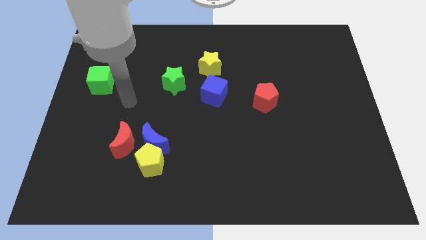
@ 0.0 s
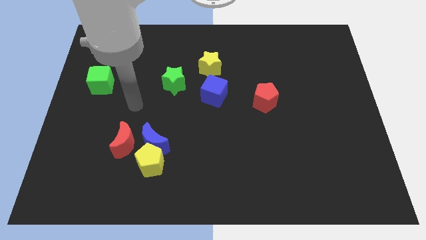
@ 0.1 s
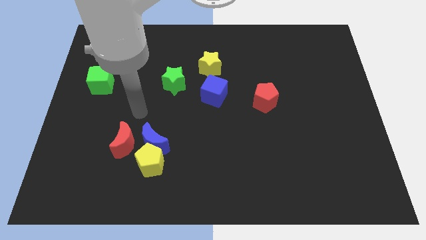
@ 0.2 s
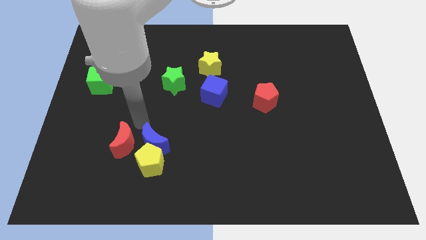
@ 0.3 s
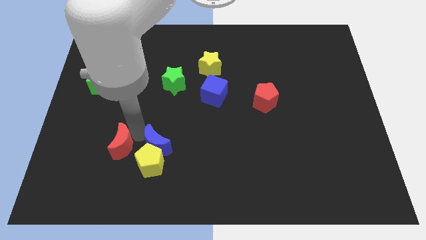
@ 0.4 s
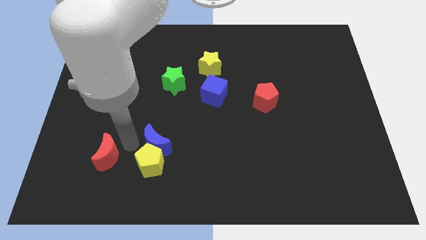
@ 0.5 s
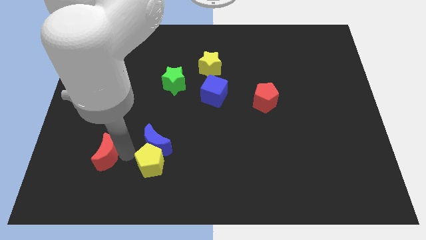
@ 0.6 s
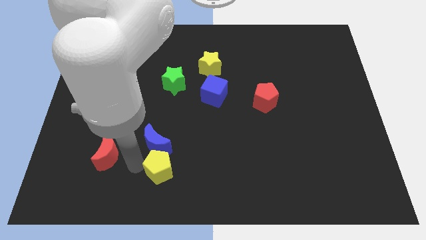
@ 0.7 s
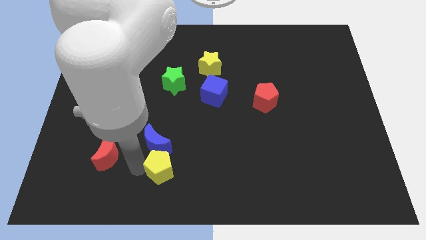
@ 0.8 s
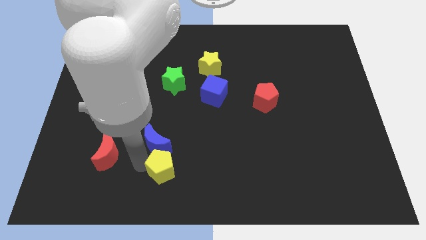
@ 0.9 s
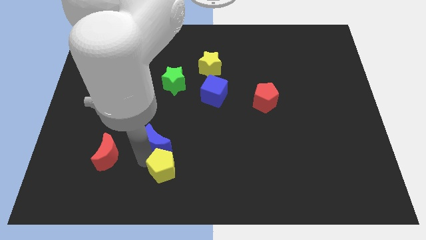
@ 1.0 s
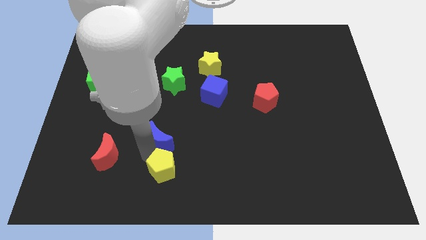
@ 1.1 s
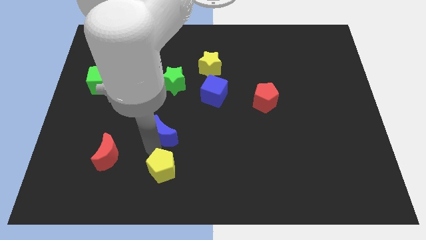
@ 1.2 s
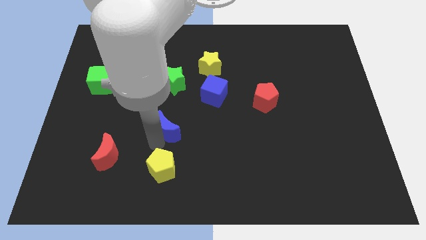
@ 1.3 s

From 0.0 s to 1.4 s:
pull the blue moon apart from the yellow pentagon and red moon

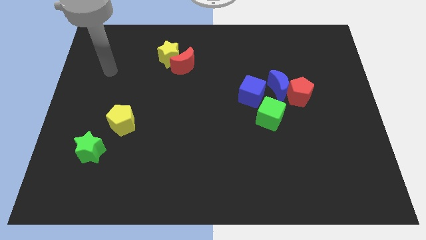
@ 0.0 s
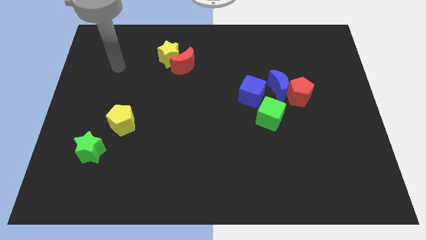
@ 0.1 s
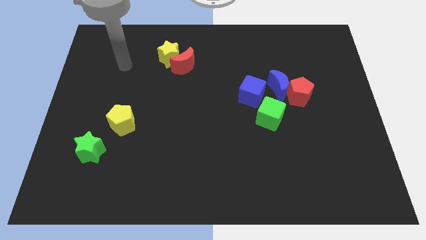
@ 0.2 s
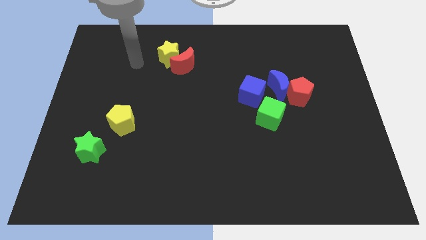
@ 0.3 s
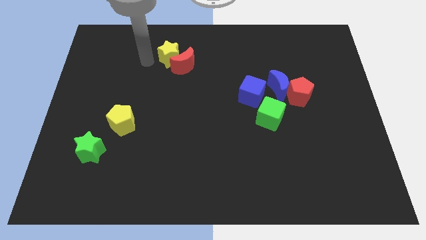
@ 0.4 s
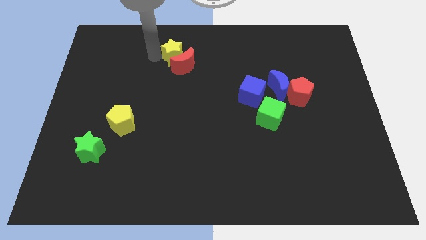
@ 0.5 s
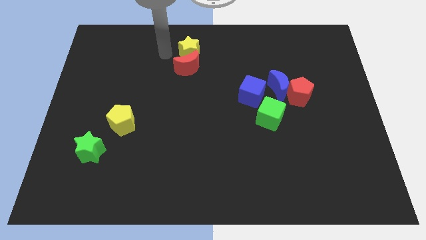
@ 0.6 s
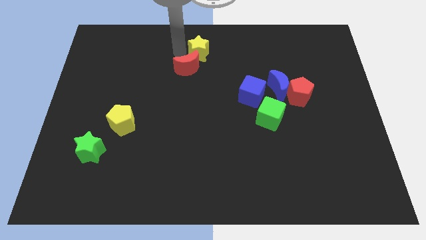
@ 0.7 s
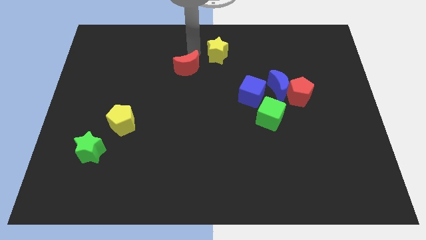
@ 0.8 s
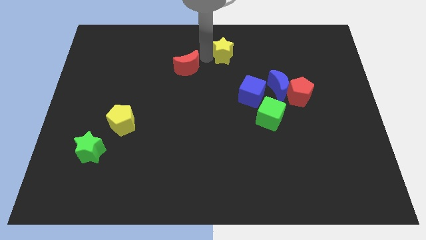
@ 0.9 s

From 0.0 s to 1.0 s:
separate the red moon from the yellow star

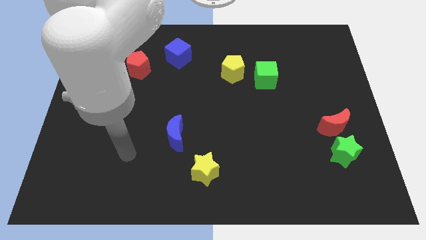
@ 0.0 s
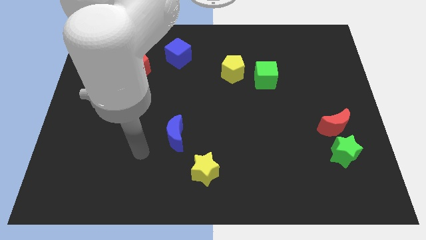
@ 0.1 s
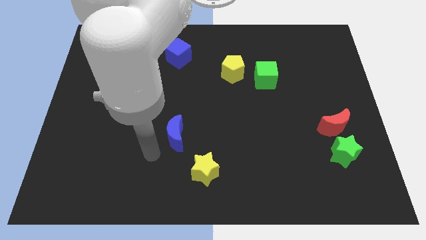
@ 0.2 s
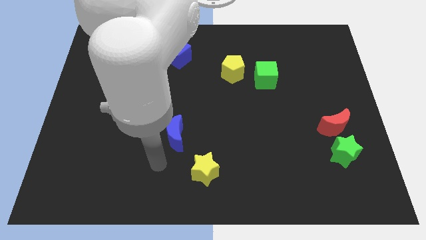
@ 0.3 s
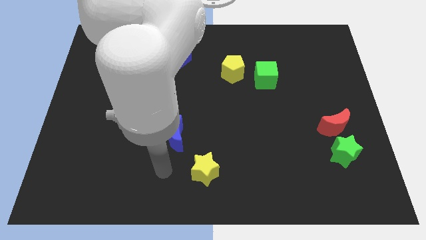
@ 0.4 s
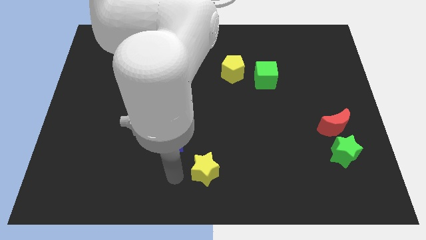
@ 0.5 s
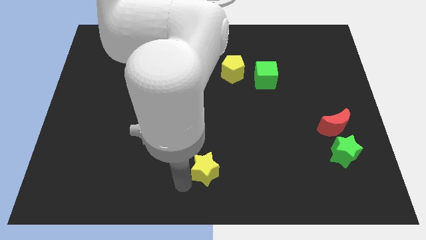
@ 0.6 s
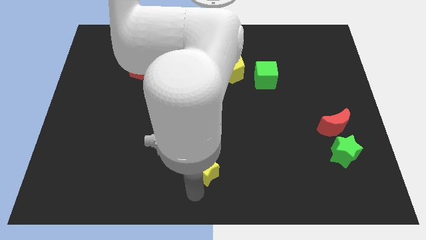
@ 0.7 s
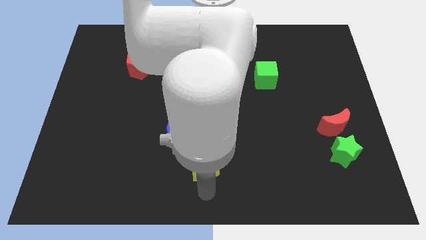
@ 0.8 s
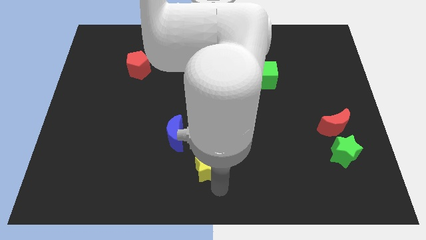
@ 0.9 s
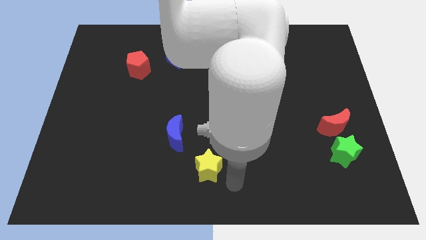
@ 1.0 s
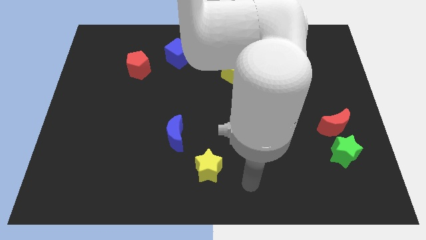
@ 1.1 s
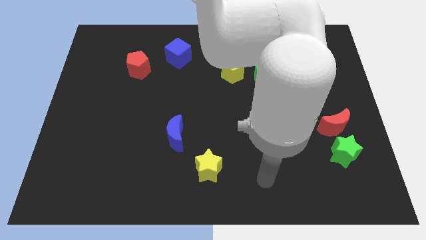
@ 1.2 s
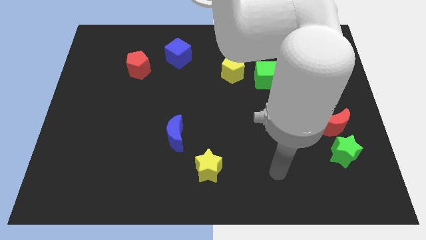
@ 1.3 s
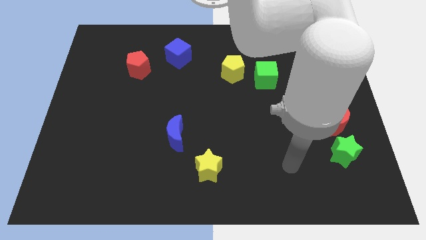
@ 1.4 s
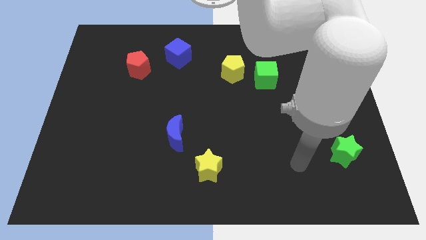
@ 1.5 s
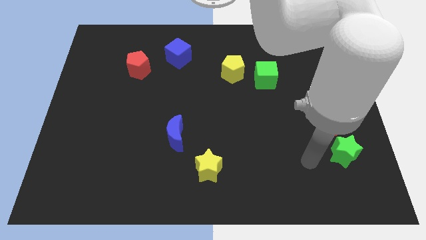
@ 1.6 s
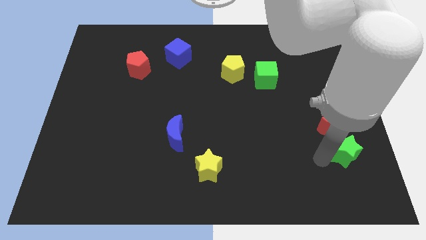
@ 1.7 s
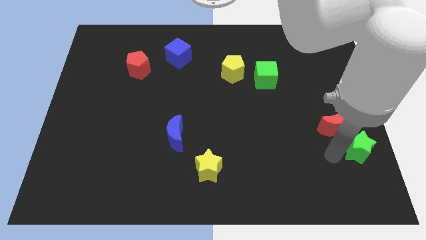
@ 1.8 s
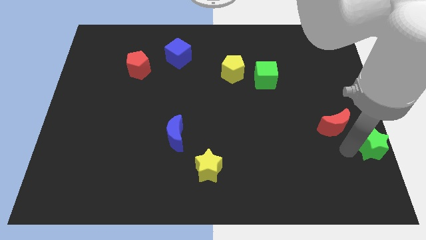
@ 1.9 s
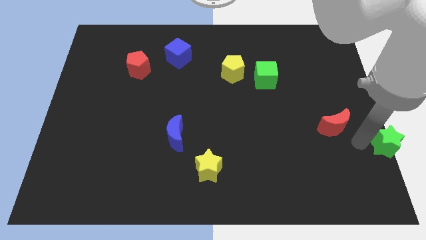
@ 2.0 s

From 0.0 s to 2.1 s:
pull the red moon apart from the green star

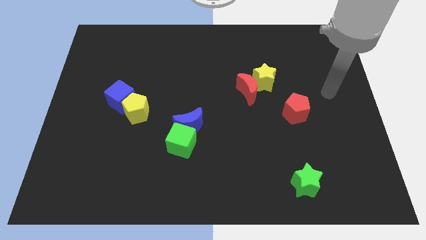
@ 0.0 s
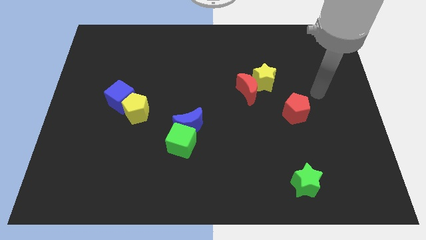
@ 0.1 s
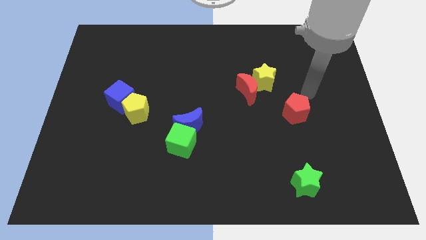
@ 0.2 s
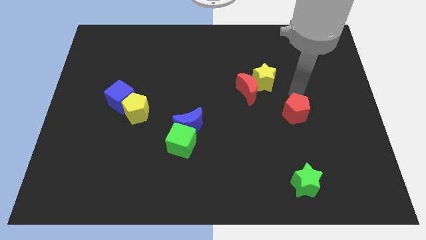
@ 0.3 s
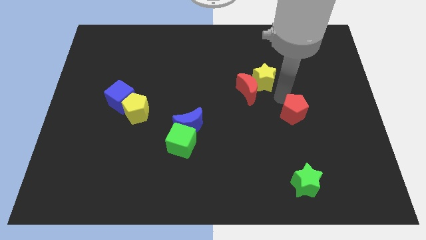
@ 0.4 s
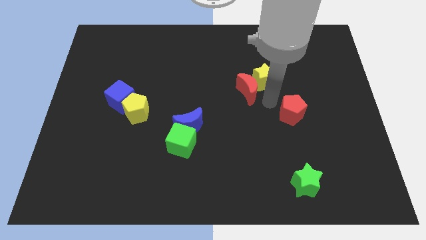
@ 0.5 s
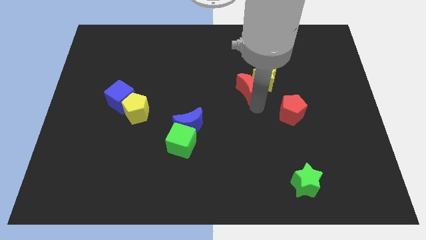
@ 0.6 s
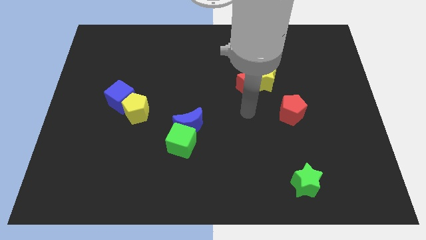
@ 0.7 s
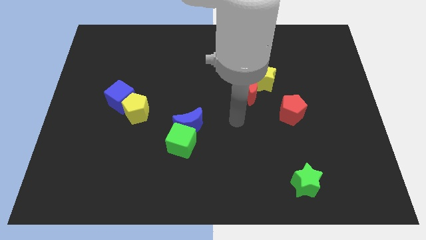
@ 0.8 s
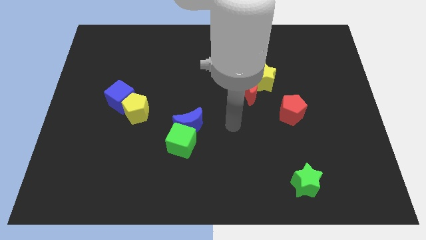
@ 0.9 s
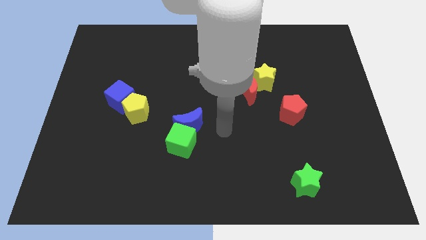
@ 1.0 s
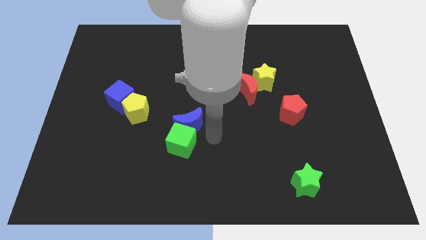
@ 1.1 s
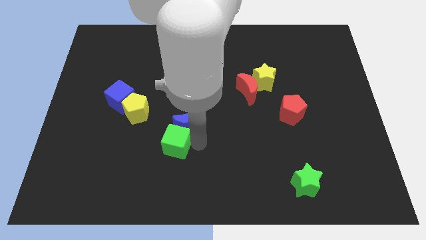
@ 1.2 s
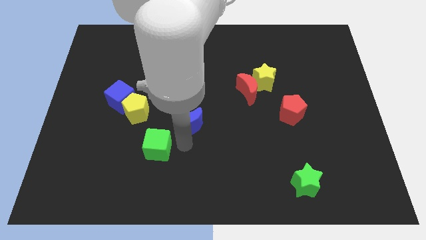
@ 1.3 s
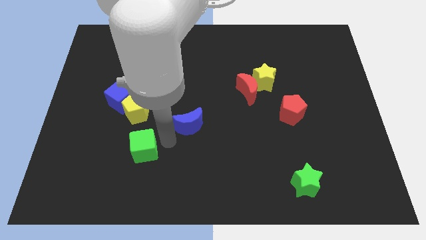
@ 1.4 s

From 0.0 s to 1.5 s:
pull the blue moon apart from the green cube

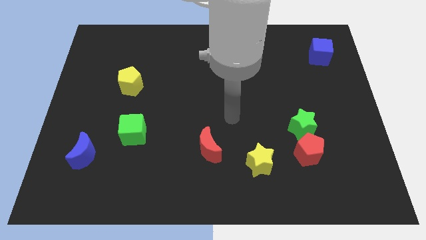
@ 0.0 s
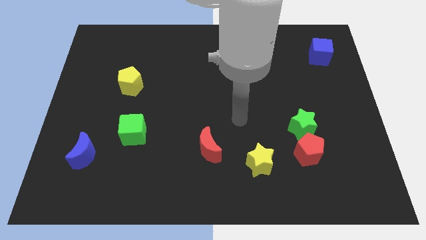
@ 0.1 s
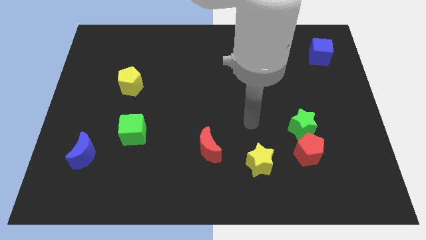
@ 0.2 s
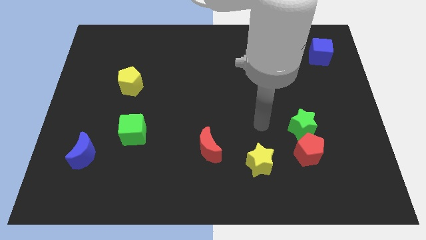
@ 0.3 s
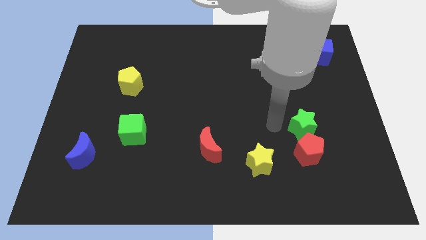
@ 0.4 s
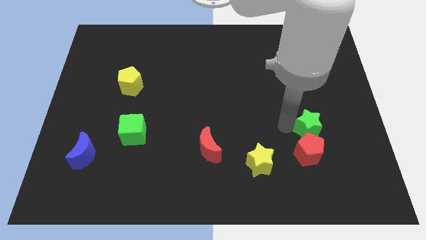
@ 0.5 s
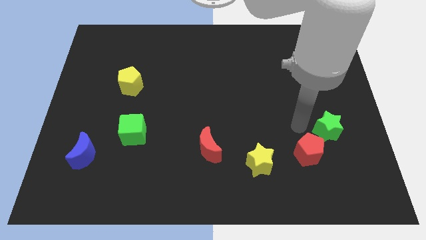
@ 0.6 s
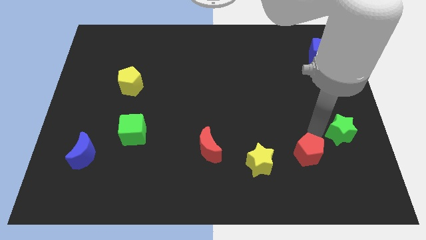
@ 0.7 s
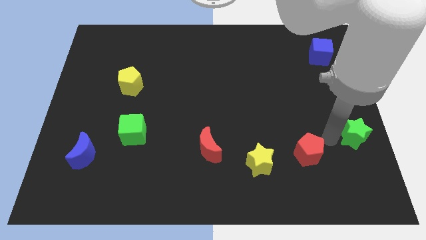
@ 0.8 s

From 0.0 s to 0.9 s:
pull the red pentagon apart from the green star

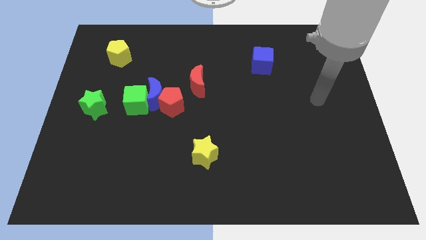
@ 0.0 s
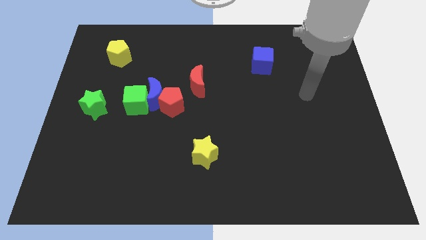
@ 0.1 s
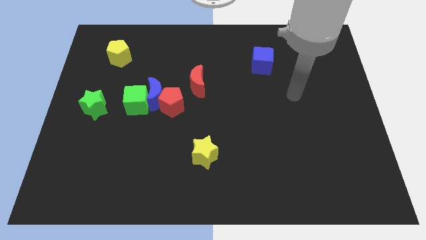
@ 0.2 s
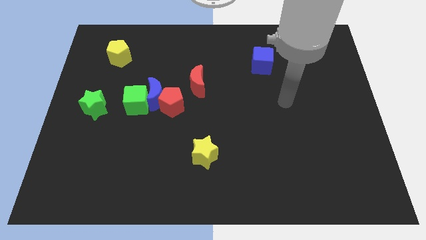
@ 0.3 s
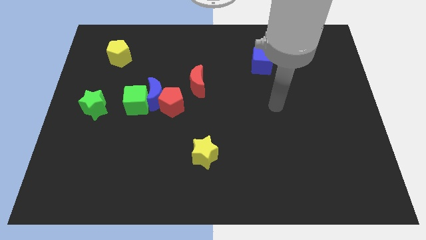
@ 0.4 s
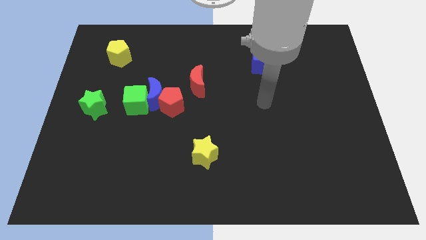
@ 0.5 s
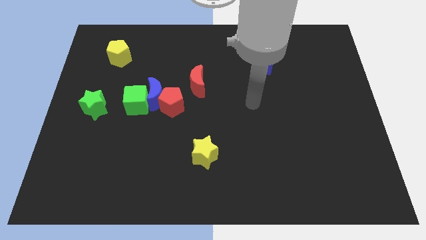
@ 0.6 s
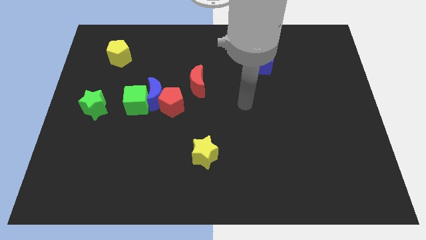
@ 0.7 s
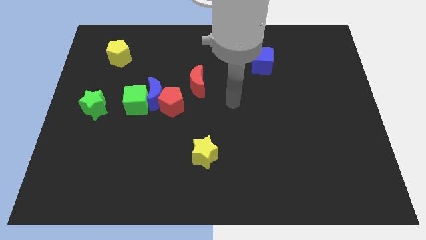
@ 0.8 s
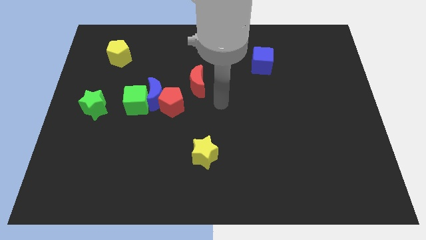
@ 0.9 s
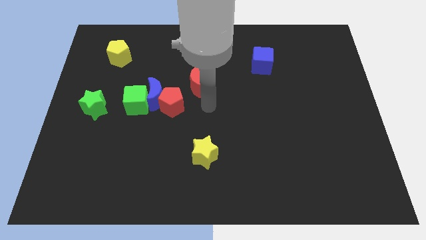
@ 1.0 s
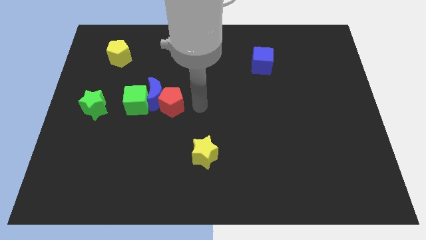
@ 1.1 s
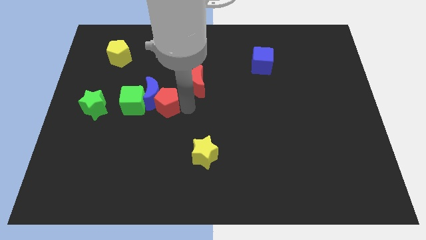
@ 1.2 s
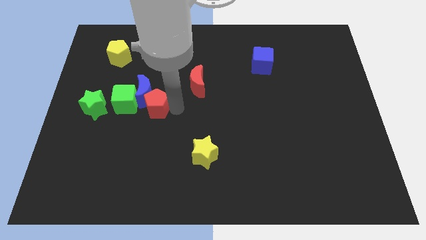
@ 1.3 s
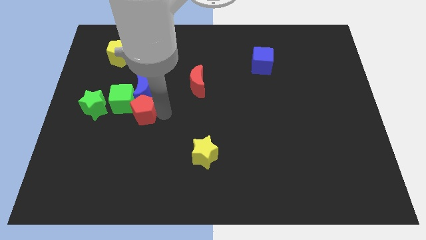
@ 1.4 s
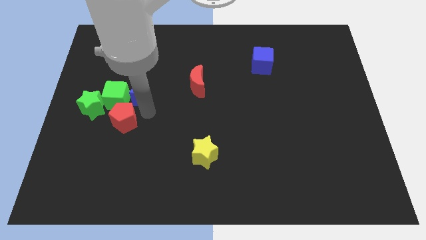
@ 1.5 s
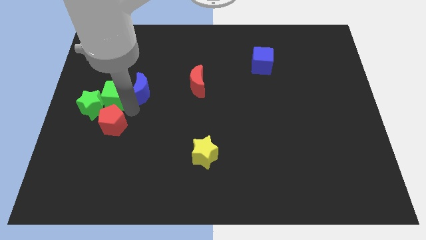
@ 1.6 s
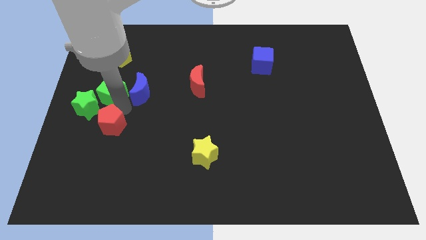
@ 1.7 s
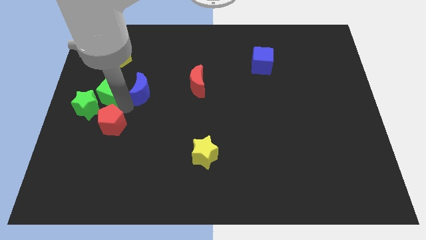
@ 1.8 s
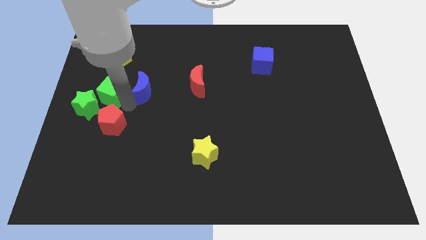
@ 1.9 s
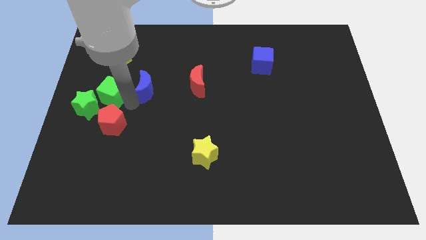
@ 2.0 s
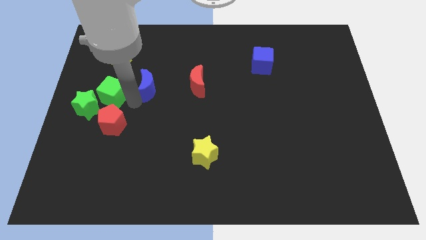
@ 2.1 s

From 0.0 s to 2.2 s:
move the blue moon away from the green cube and red pentagon

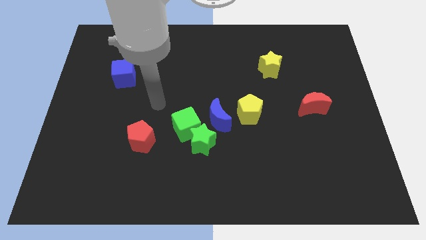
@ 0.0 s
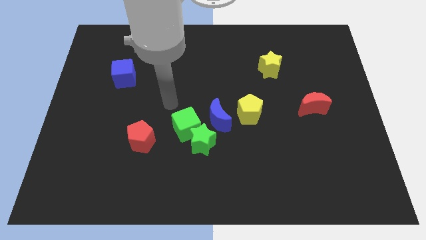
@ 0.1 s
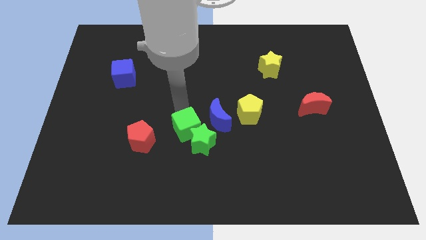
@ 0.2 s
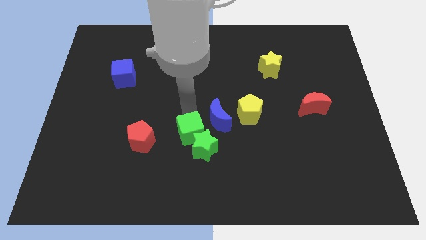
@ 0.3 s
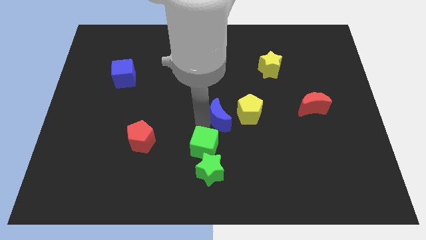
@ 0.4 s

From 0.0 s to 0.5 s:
move the green star away from the green cube and blue moon
